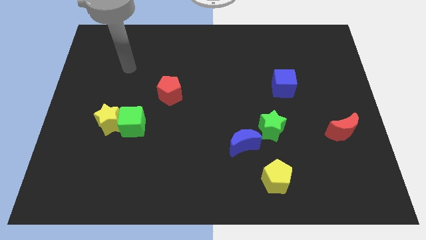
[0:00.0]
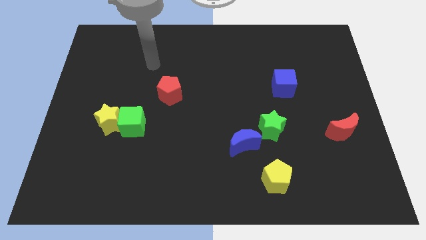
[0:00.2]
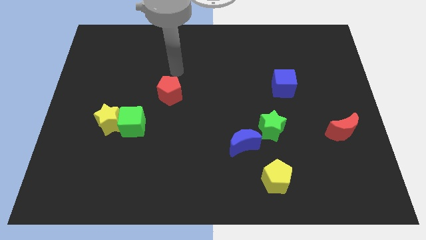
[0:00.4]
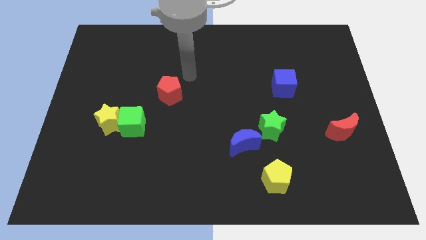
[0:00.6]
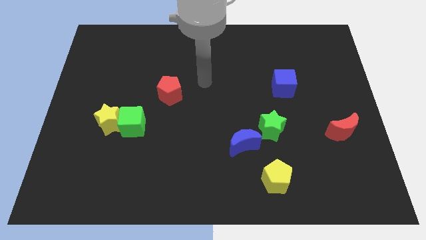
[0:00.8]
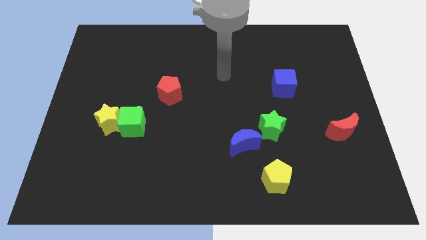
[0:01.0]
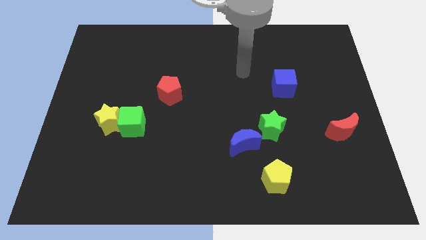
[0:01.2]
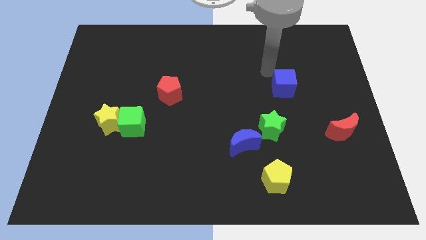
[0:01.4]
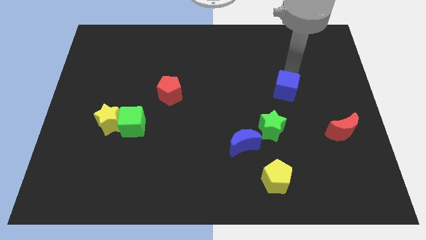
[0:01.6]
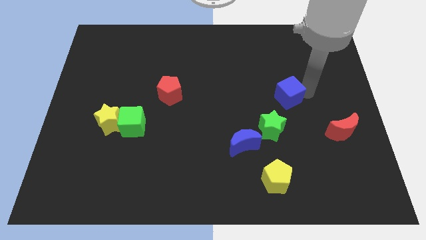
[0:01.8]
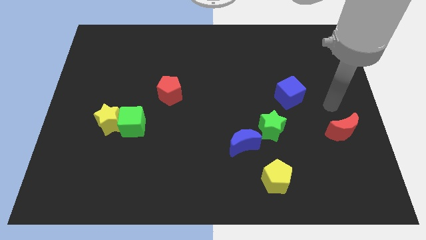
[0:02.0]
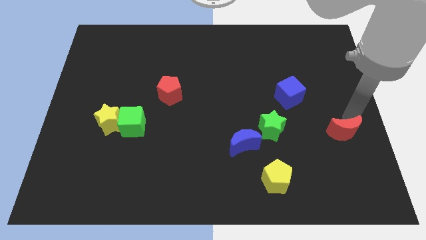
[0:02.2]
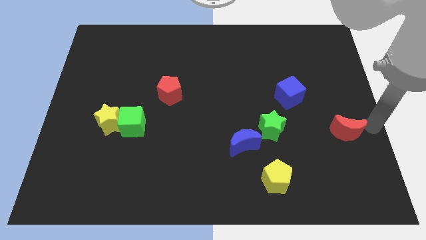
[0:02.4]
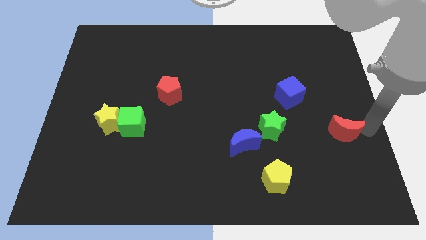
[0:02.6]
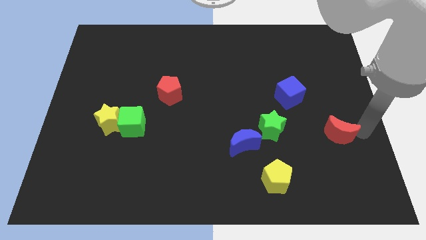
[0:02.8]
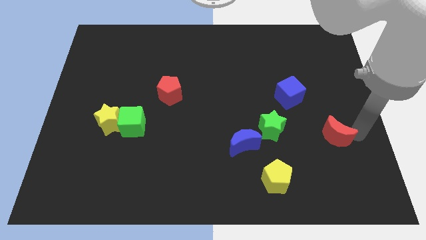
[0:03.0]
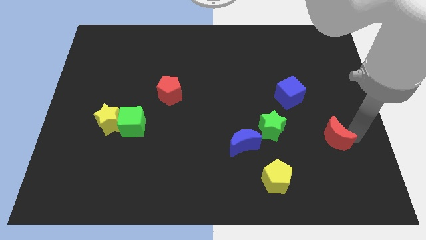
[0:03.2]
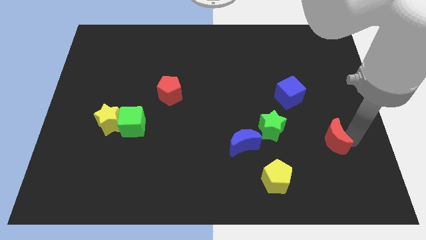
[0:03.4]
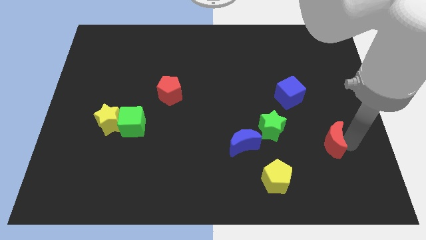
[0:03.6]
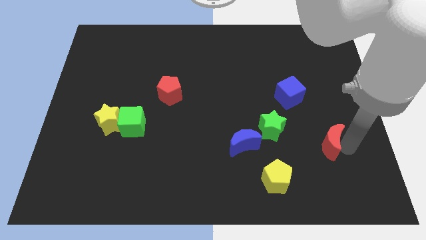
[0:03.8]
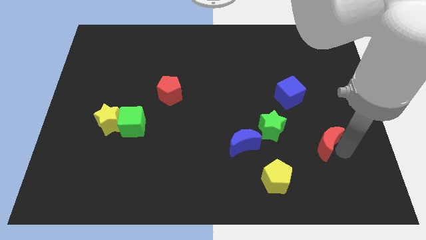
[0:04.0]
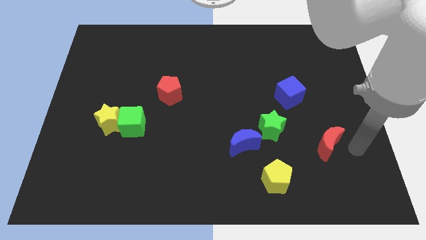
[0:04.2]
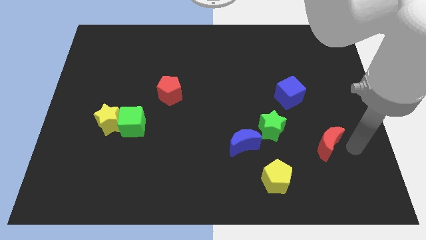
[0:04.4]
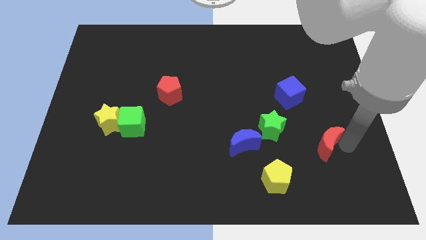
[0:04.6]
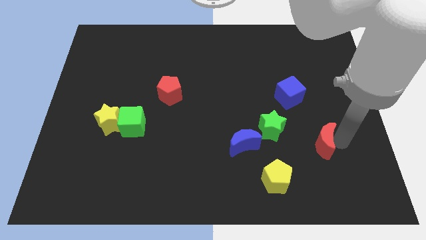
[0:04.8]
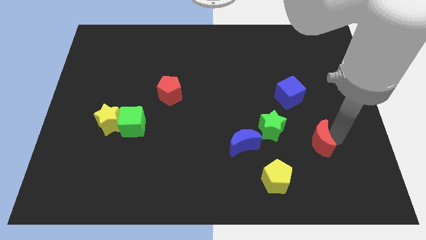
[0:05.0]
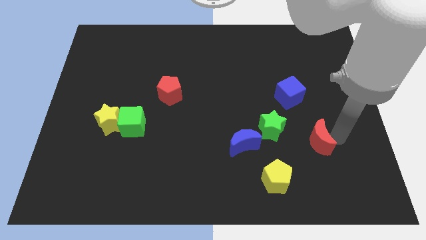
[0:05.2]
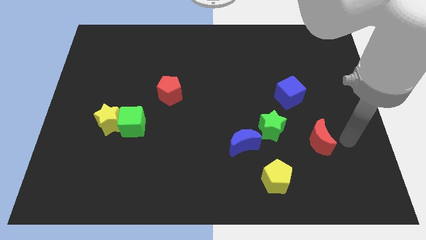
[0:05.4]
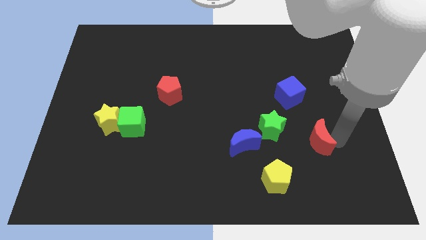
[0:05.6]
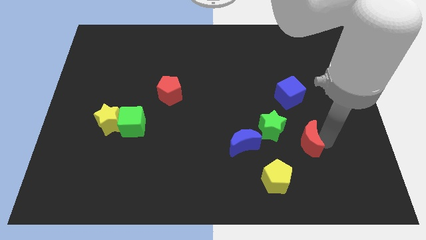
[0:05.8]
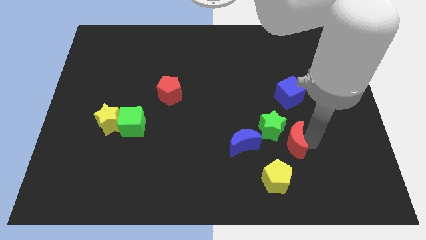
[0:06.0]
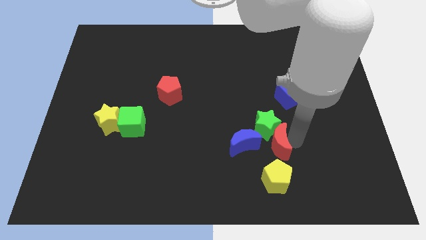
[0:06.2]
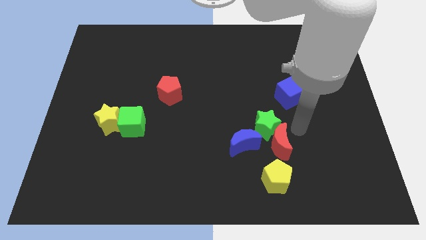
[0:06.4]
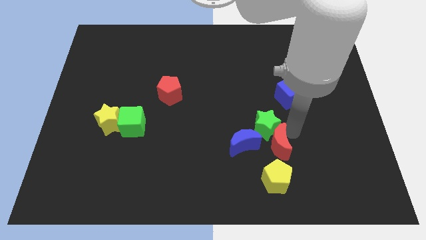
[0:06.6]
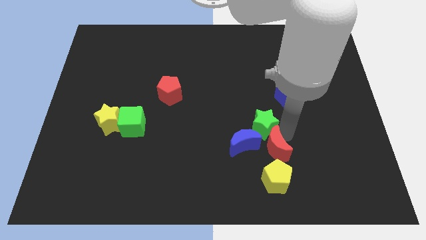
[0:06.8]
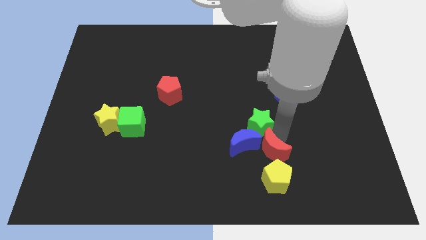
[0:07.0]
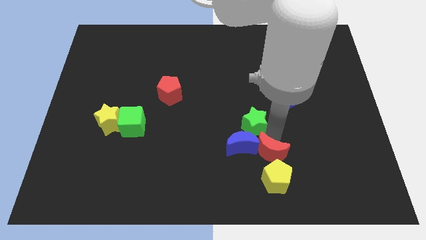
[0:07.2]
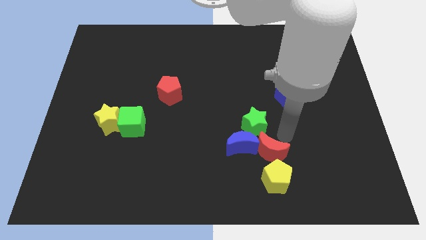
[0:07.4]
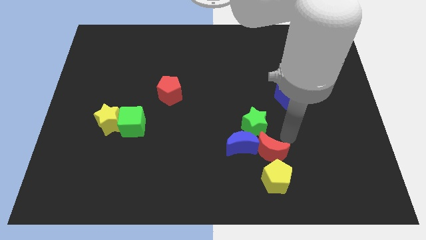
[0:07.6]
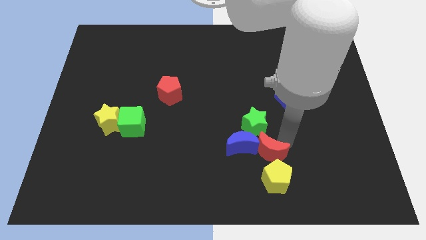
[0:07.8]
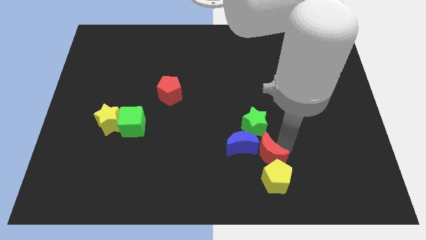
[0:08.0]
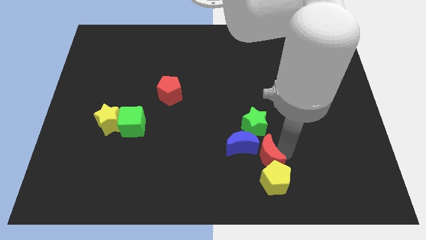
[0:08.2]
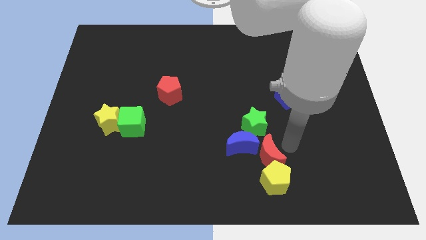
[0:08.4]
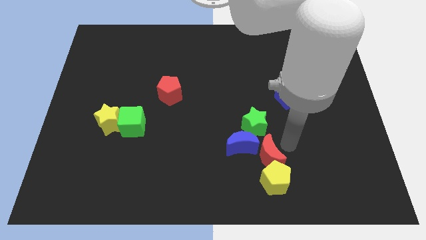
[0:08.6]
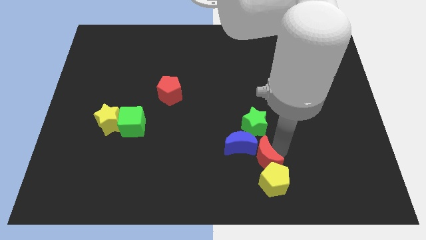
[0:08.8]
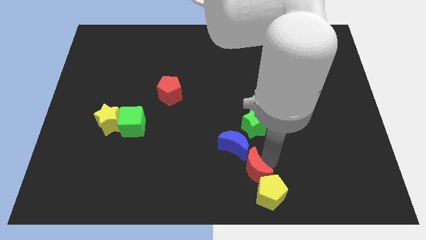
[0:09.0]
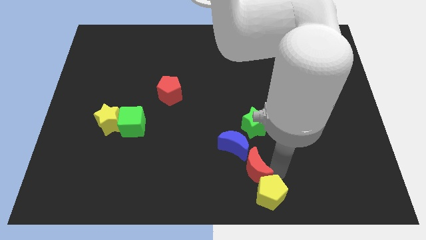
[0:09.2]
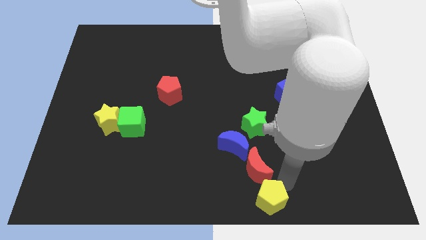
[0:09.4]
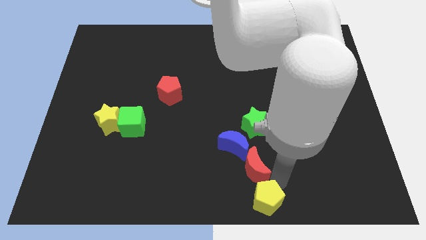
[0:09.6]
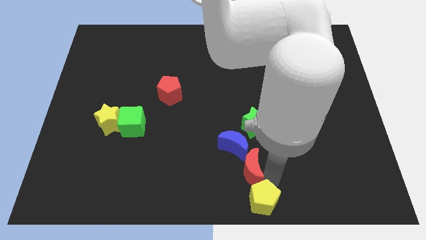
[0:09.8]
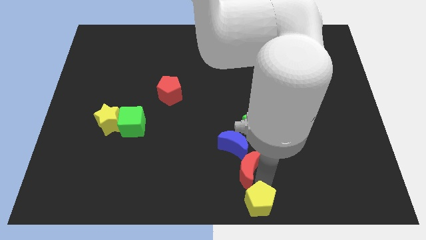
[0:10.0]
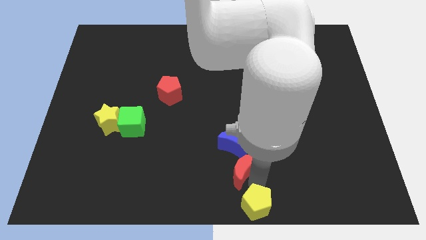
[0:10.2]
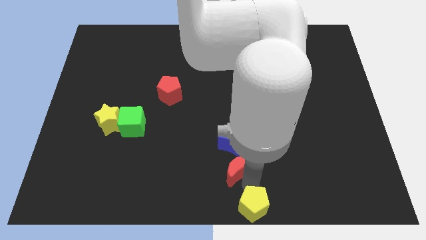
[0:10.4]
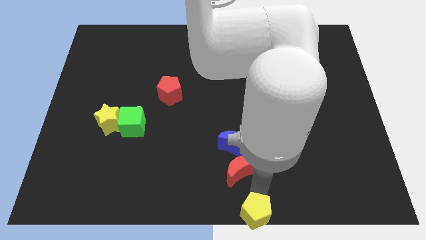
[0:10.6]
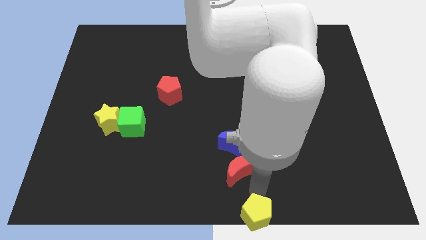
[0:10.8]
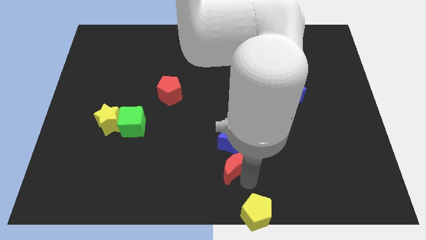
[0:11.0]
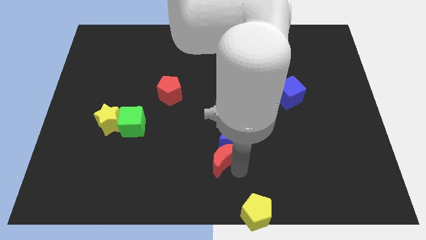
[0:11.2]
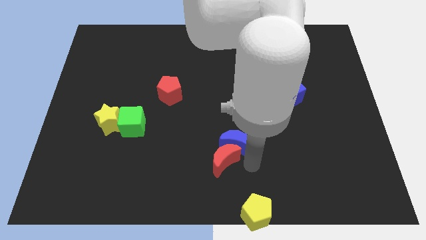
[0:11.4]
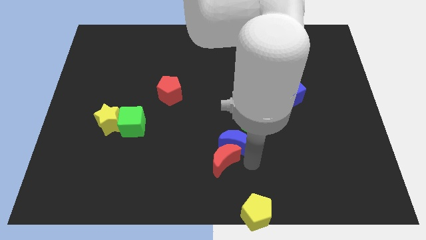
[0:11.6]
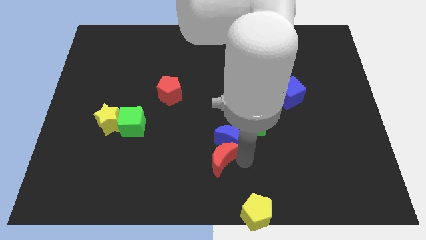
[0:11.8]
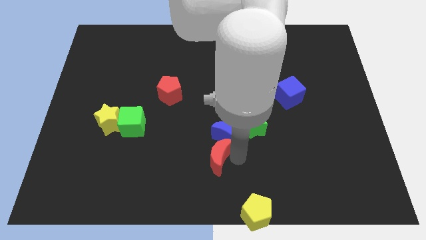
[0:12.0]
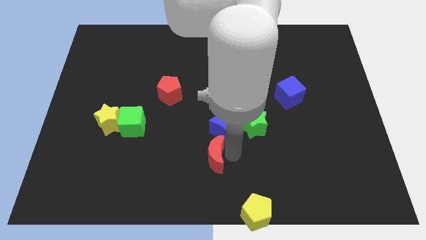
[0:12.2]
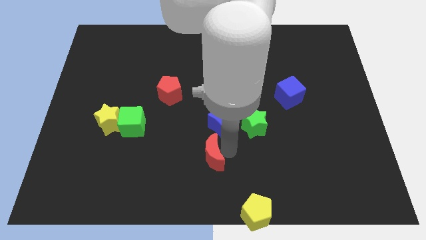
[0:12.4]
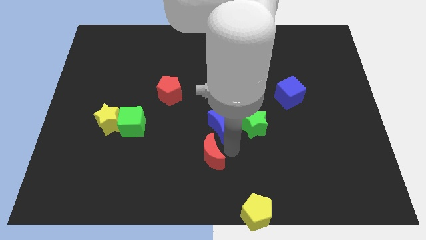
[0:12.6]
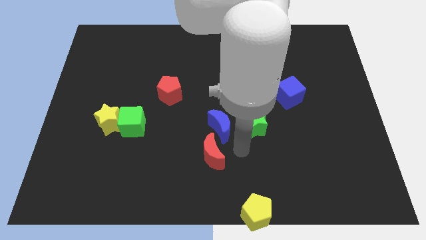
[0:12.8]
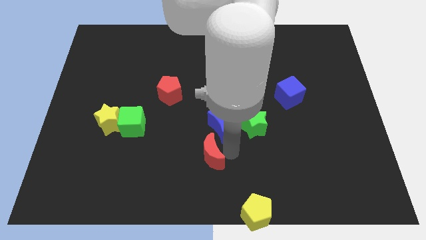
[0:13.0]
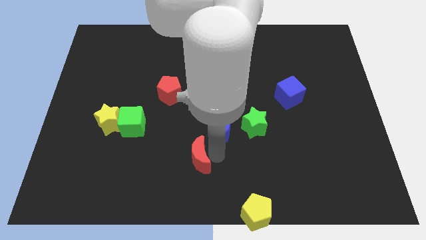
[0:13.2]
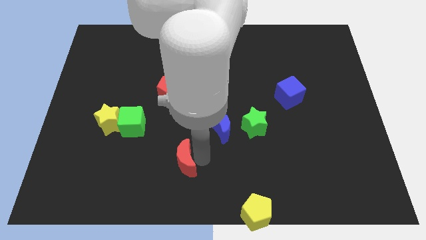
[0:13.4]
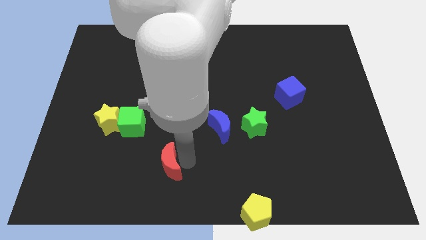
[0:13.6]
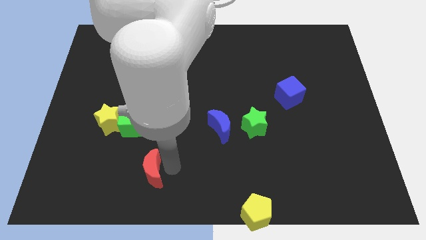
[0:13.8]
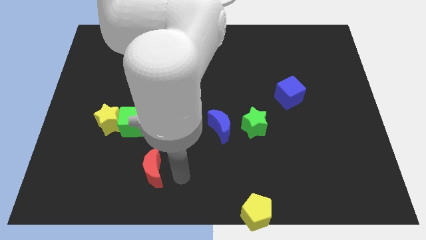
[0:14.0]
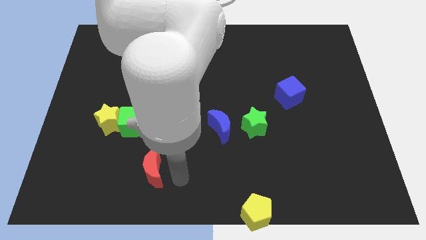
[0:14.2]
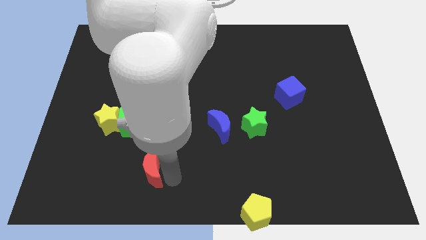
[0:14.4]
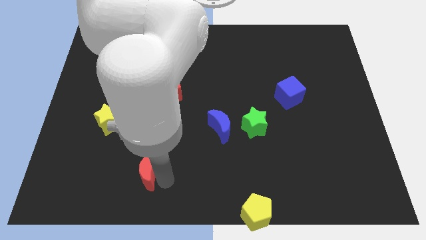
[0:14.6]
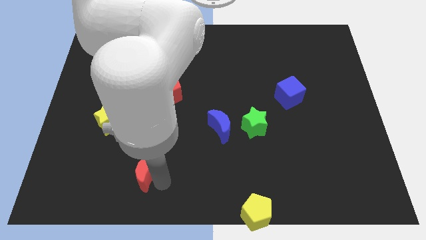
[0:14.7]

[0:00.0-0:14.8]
put the red moon to the bottom of the green cube
